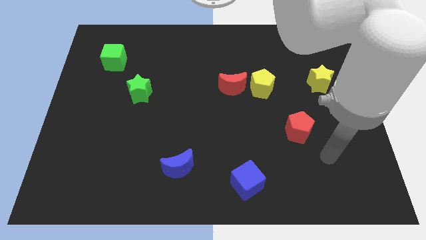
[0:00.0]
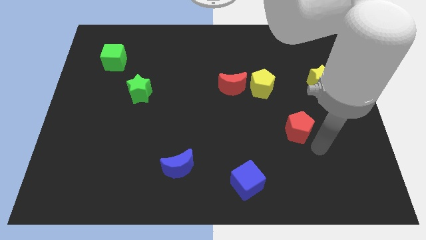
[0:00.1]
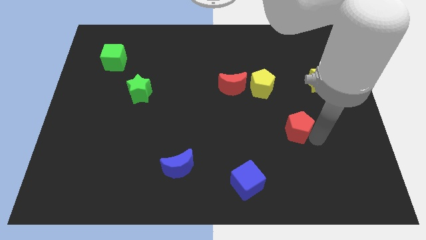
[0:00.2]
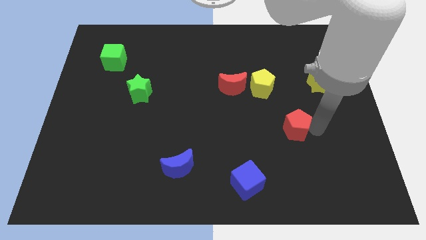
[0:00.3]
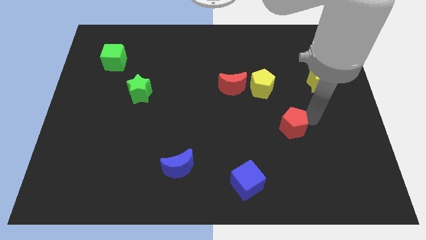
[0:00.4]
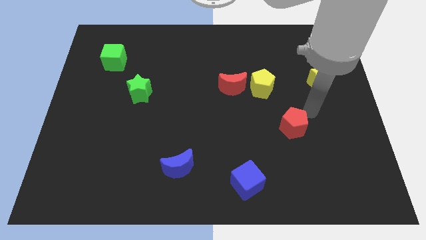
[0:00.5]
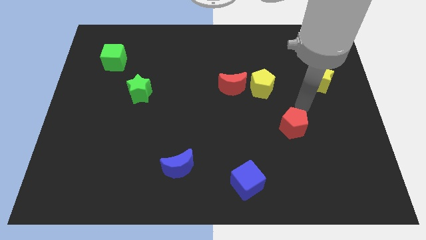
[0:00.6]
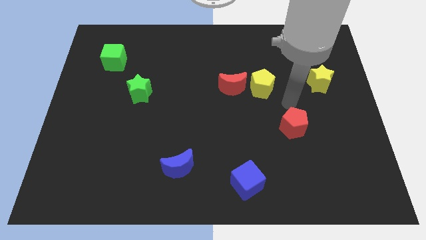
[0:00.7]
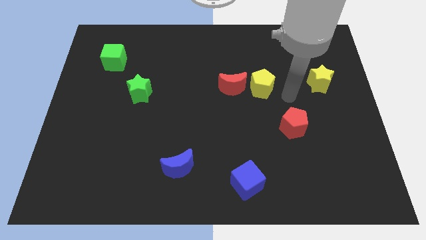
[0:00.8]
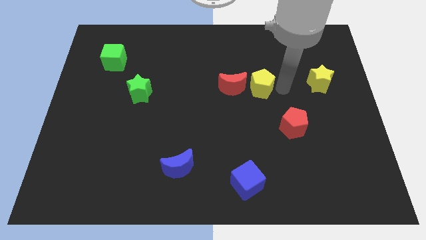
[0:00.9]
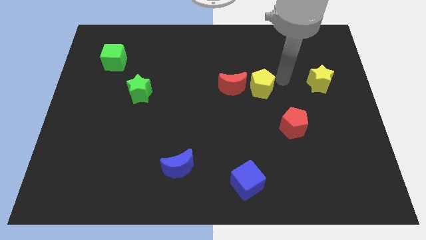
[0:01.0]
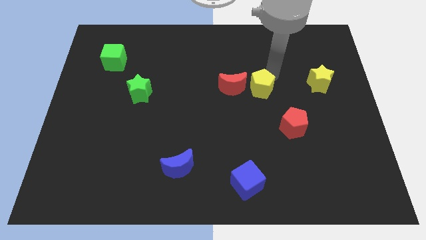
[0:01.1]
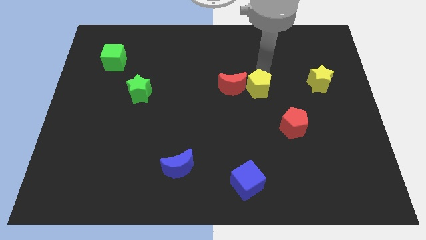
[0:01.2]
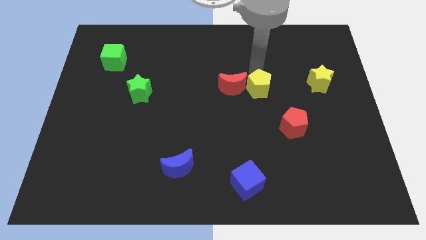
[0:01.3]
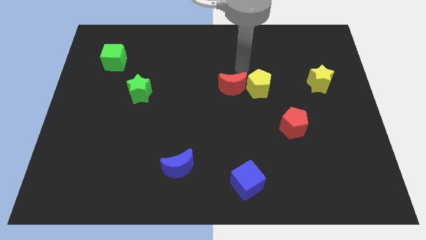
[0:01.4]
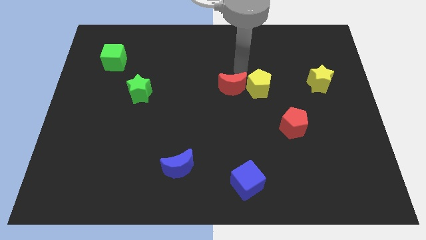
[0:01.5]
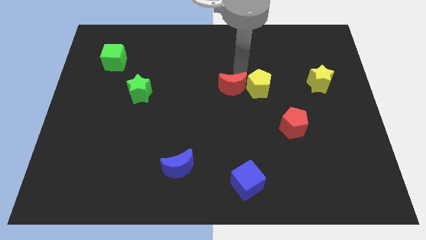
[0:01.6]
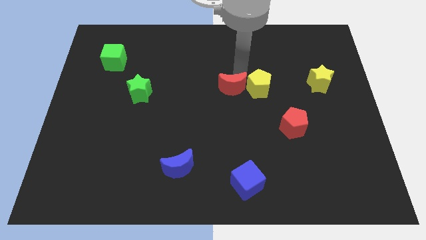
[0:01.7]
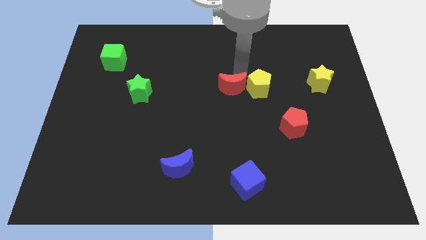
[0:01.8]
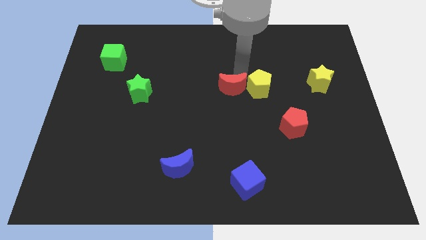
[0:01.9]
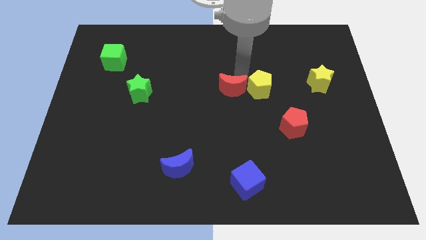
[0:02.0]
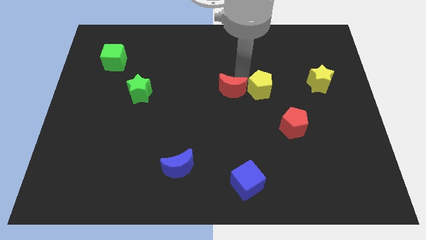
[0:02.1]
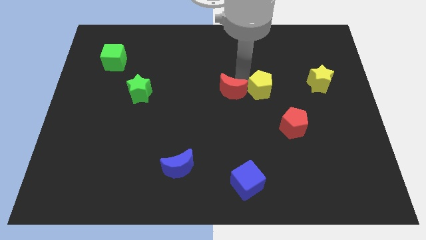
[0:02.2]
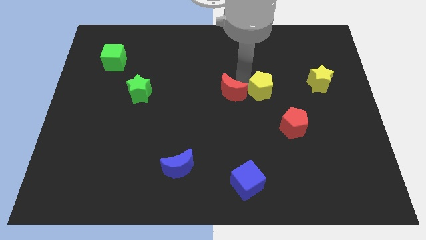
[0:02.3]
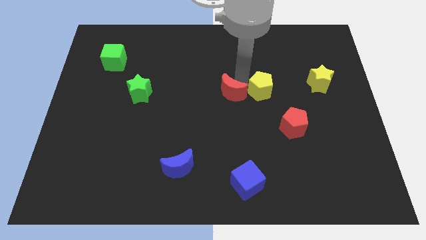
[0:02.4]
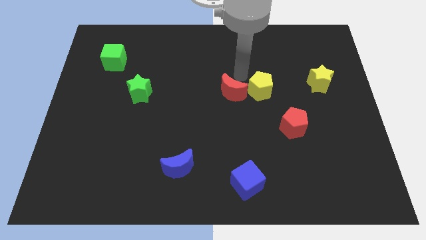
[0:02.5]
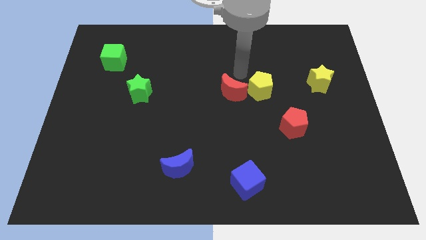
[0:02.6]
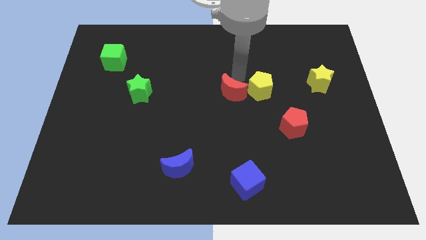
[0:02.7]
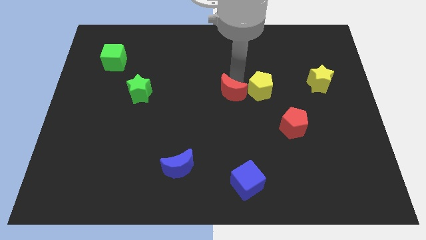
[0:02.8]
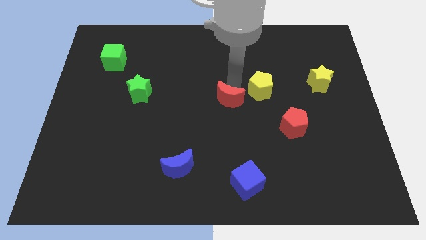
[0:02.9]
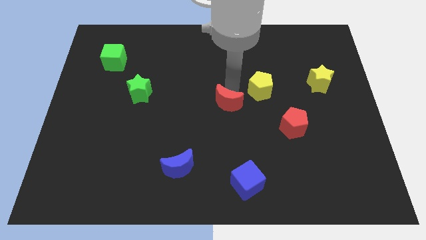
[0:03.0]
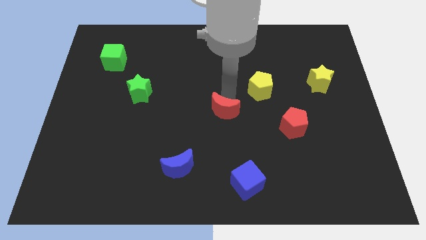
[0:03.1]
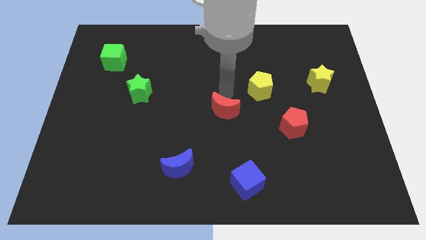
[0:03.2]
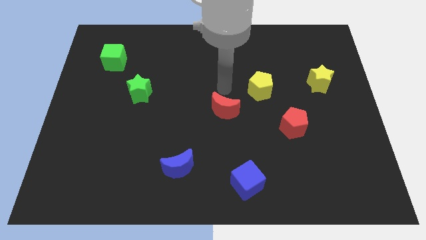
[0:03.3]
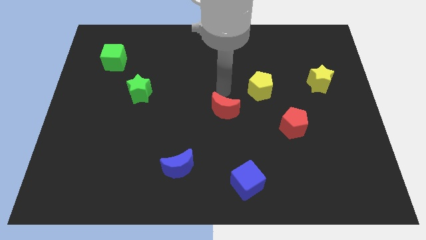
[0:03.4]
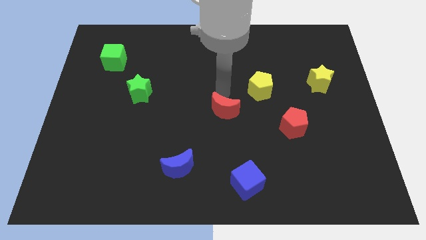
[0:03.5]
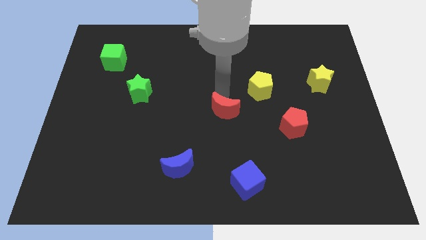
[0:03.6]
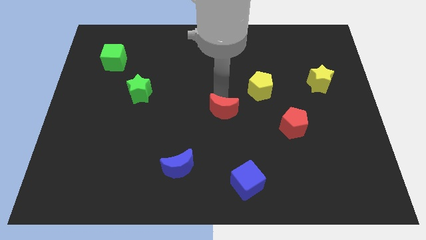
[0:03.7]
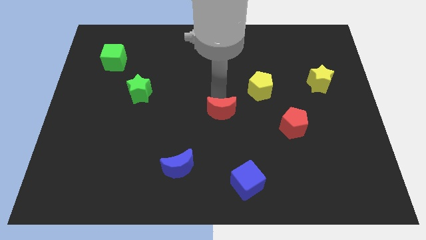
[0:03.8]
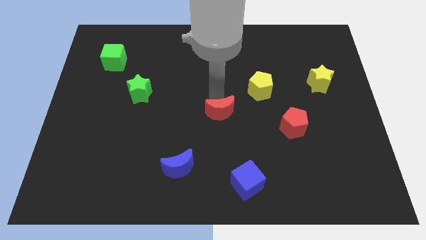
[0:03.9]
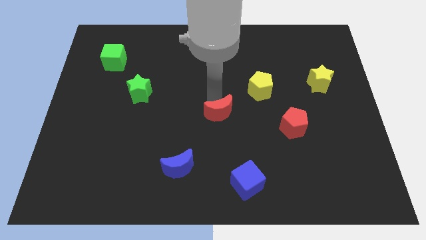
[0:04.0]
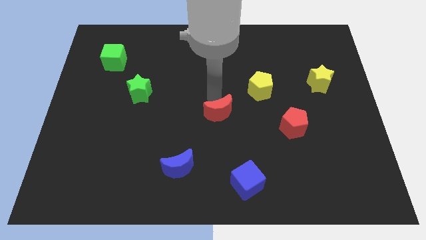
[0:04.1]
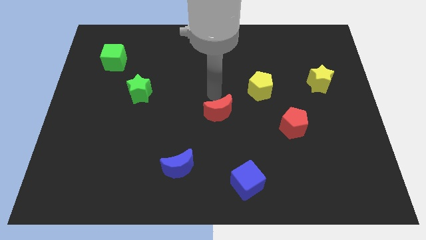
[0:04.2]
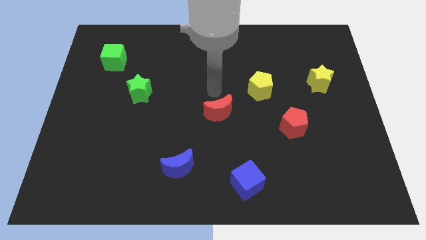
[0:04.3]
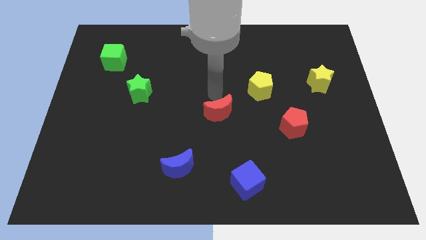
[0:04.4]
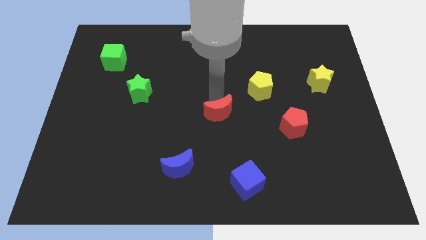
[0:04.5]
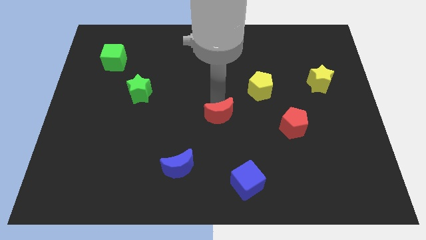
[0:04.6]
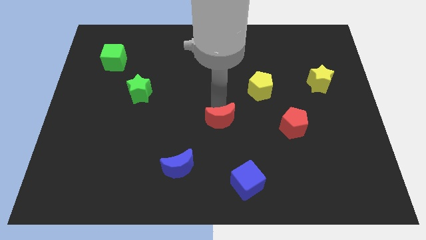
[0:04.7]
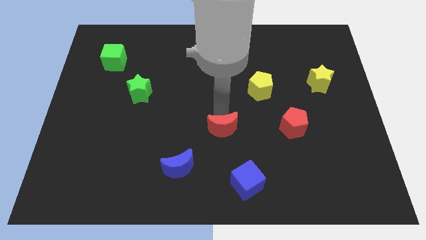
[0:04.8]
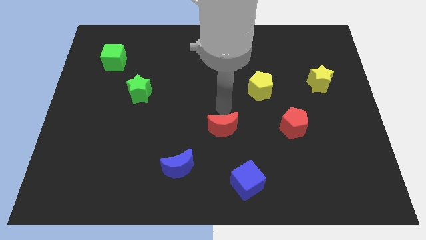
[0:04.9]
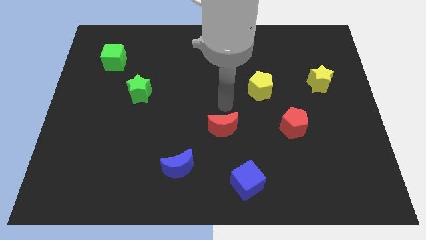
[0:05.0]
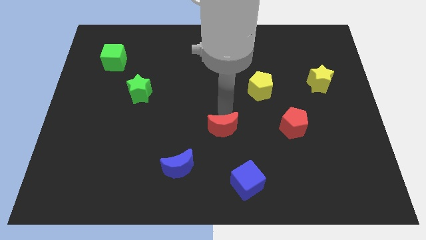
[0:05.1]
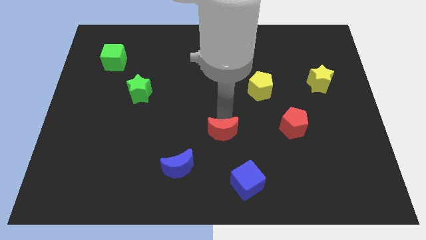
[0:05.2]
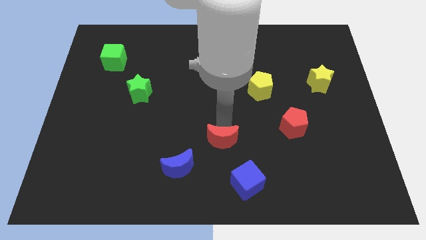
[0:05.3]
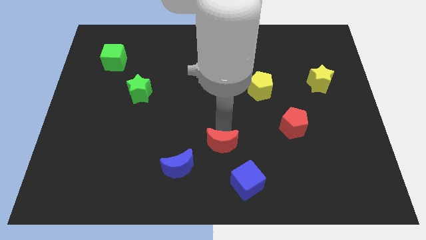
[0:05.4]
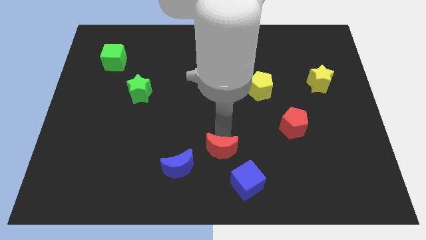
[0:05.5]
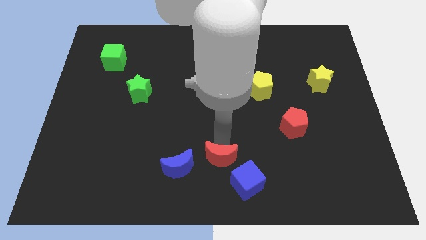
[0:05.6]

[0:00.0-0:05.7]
move the red moon to the bottom side

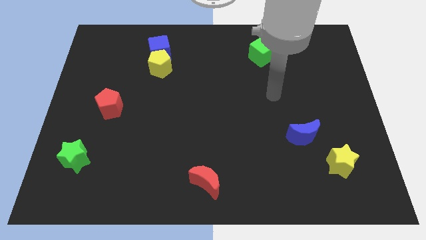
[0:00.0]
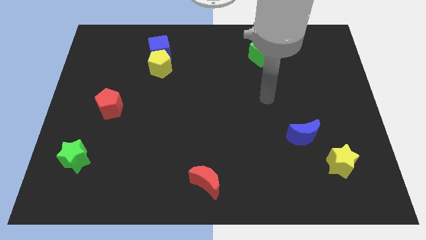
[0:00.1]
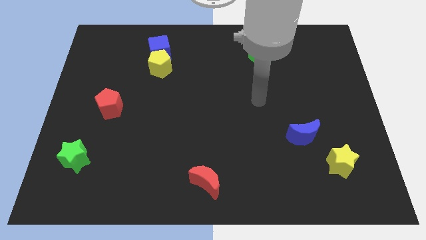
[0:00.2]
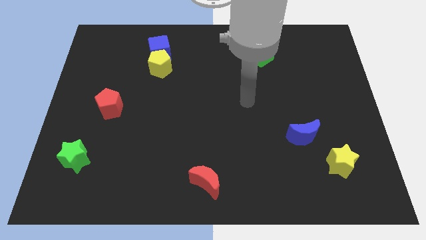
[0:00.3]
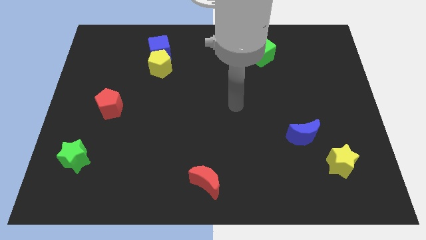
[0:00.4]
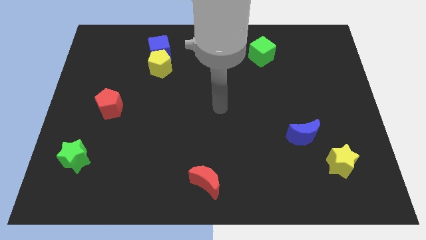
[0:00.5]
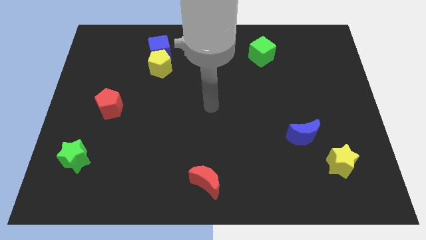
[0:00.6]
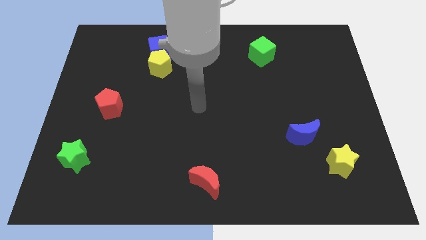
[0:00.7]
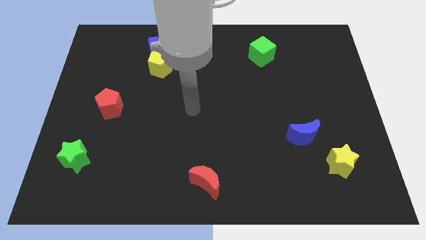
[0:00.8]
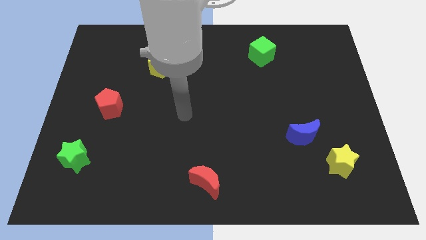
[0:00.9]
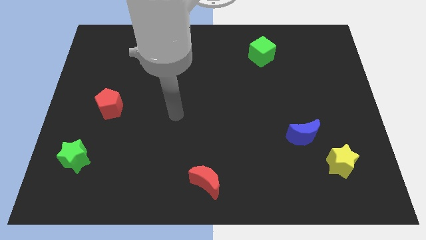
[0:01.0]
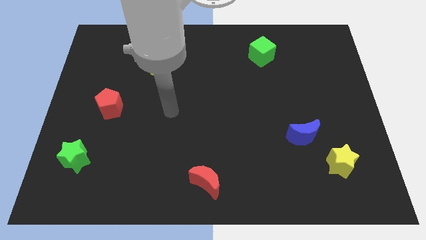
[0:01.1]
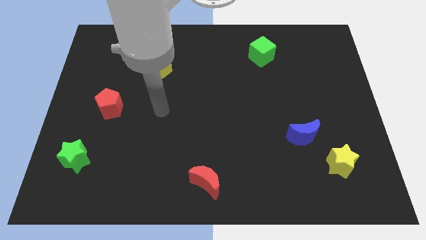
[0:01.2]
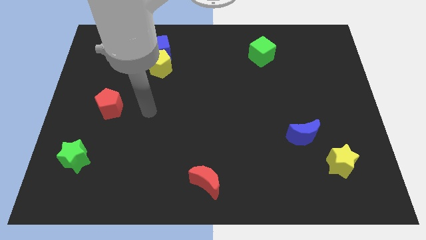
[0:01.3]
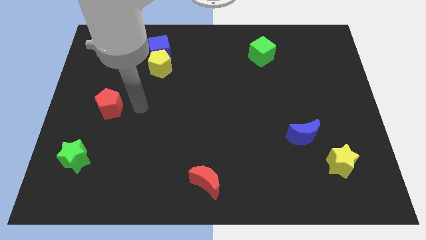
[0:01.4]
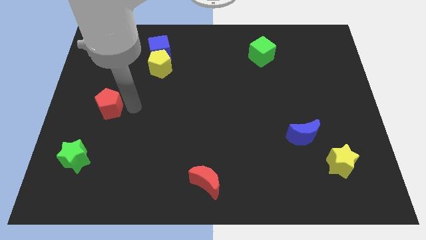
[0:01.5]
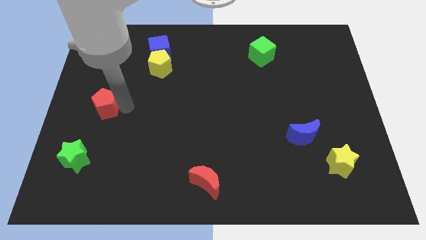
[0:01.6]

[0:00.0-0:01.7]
move the red pentagon to the left side of the board
